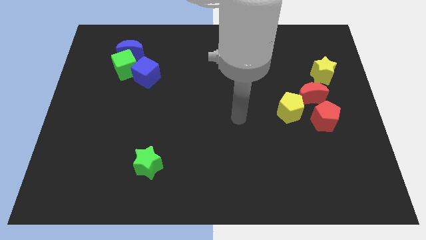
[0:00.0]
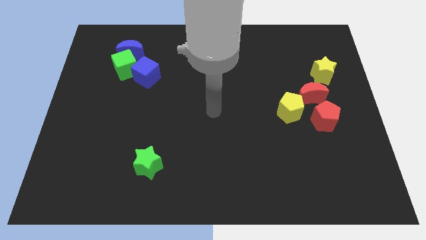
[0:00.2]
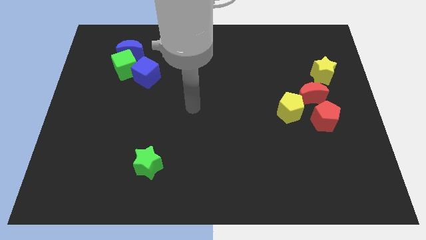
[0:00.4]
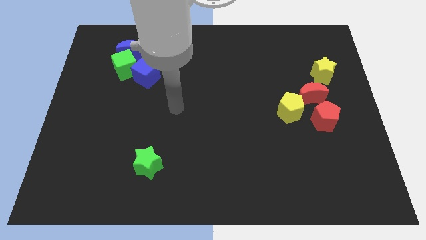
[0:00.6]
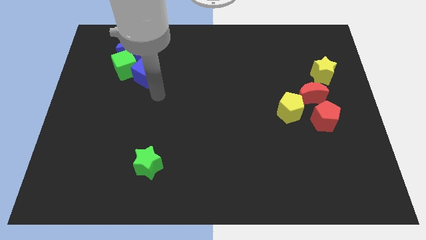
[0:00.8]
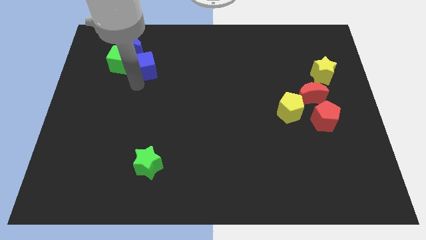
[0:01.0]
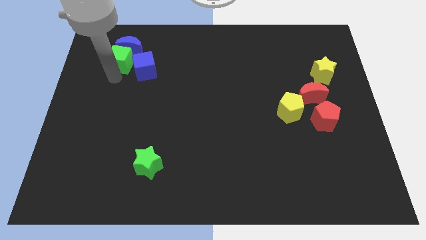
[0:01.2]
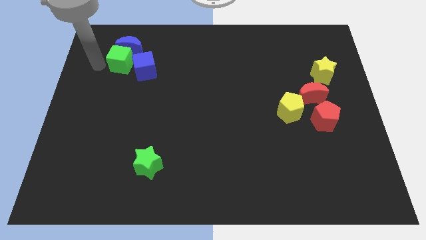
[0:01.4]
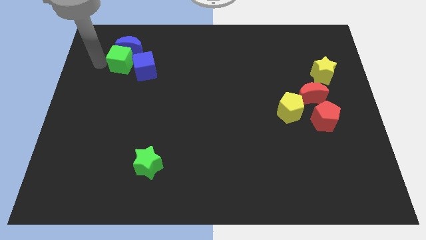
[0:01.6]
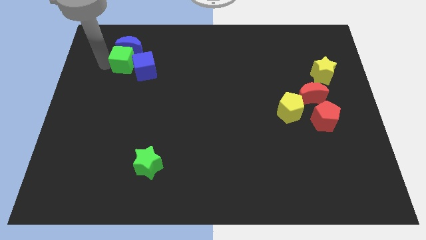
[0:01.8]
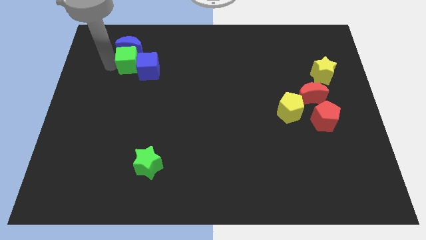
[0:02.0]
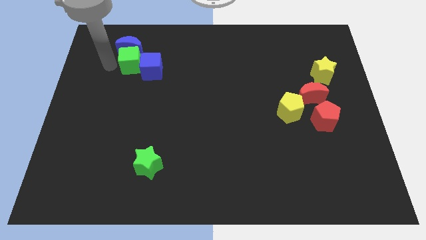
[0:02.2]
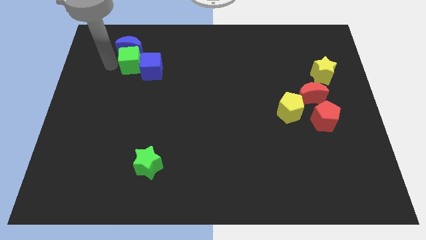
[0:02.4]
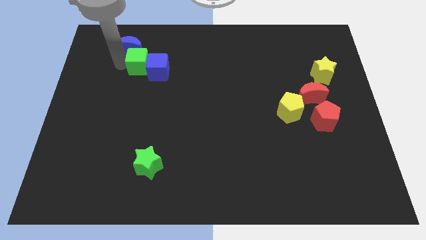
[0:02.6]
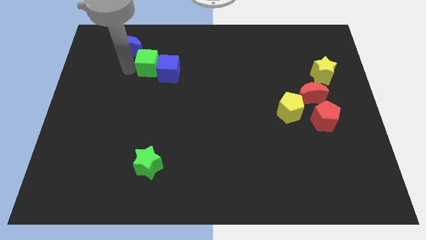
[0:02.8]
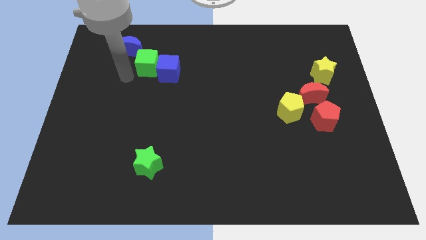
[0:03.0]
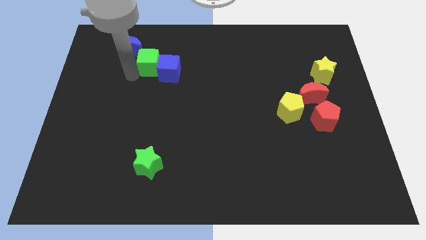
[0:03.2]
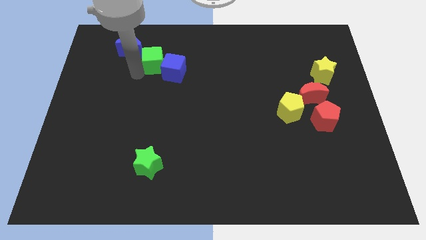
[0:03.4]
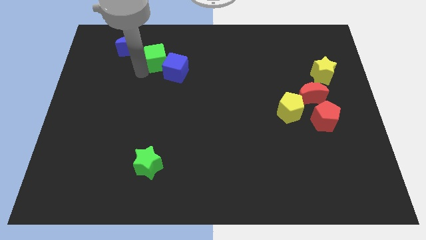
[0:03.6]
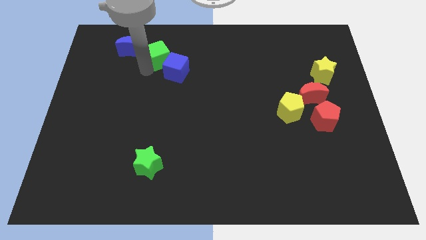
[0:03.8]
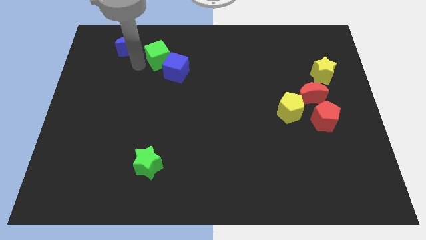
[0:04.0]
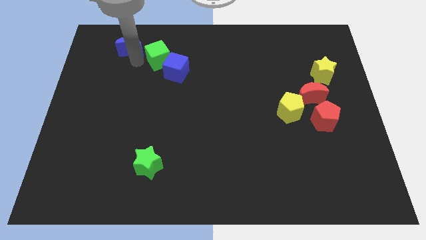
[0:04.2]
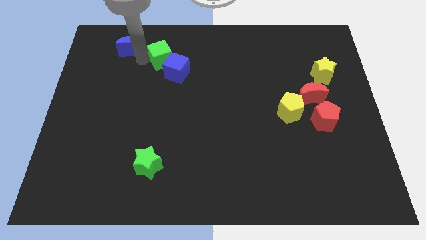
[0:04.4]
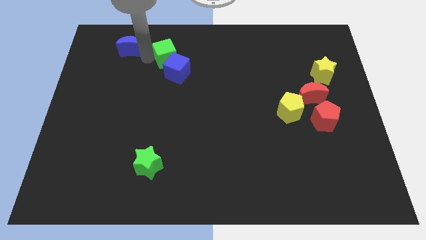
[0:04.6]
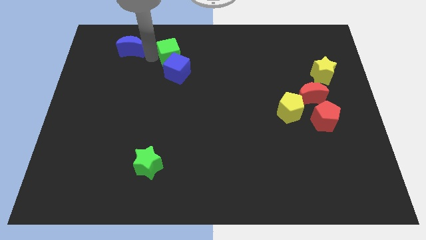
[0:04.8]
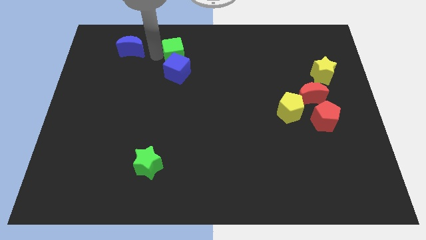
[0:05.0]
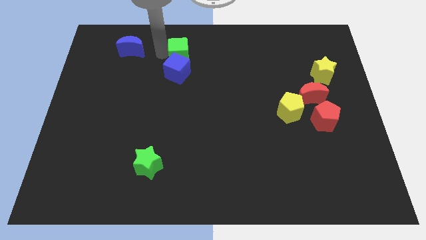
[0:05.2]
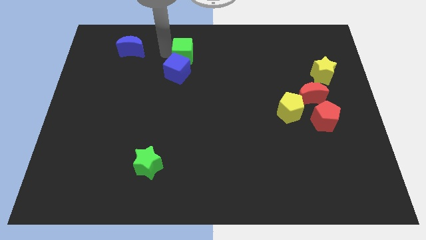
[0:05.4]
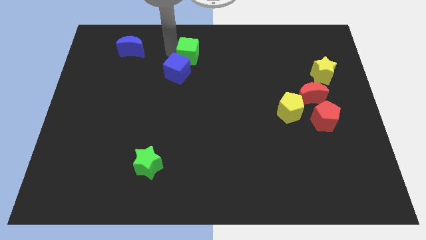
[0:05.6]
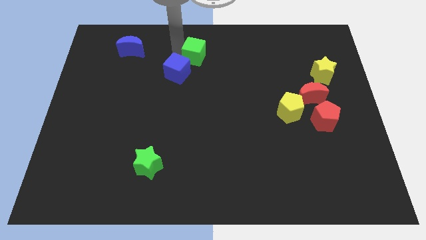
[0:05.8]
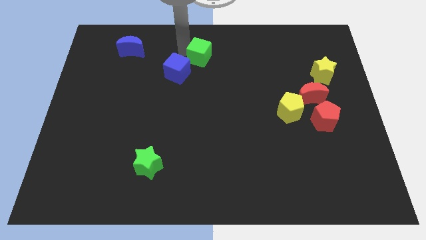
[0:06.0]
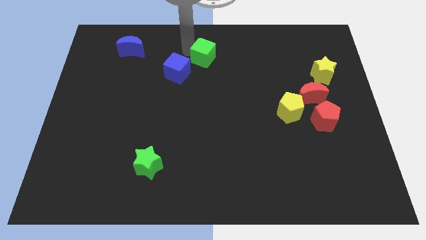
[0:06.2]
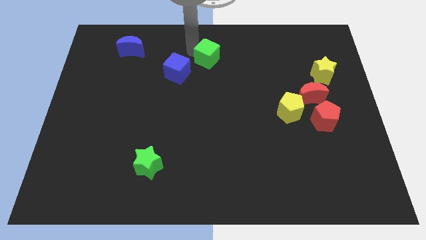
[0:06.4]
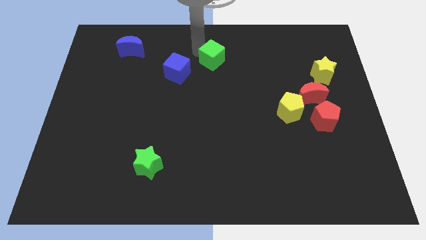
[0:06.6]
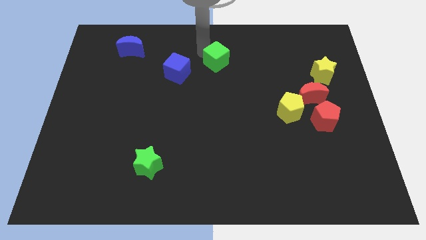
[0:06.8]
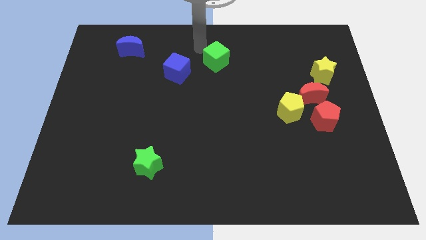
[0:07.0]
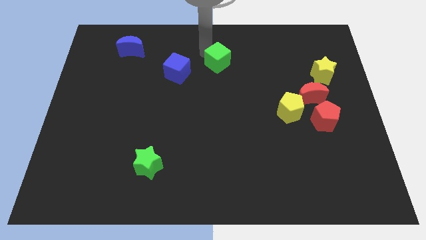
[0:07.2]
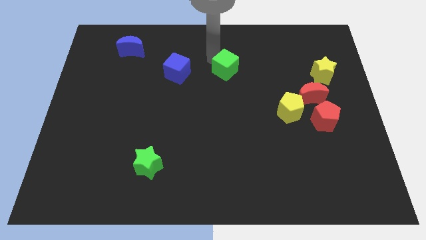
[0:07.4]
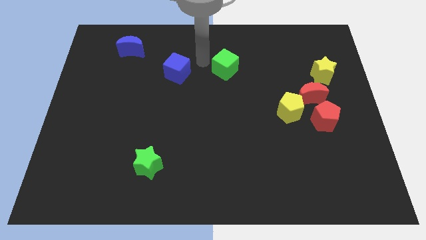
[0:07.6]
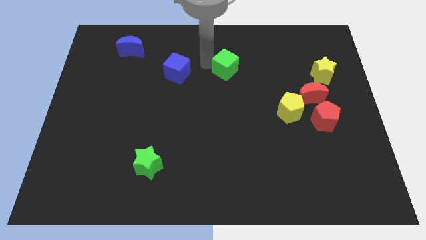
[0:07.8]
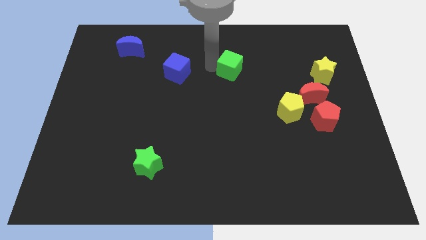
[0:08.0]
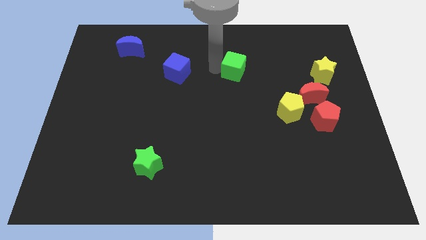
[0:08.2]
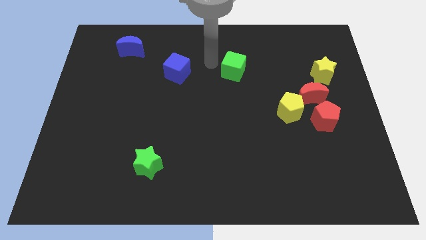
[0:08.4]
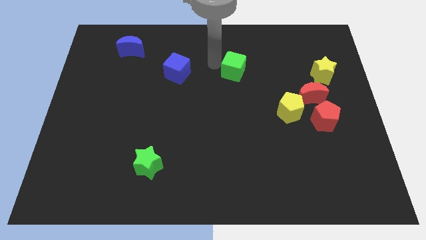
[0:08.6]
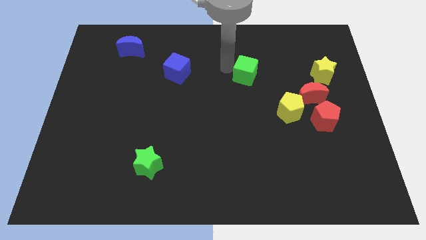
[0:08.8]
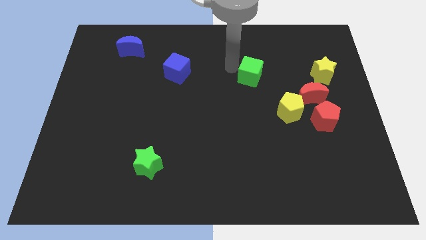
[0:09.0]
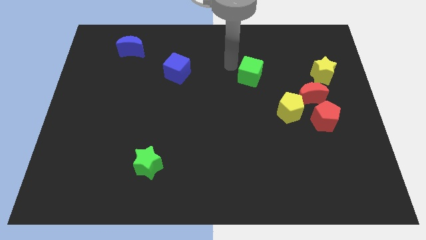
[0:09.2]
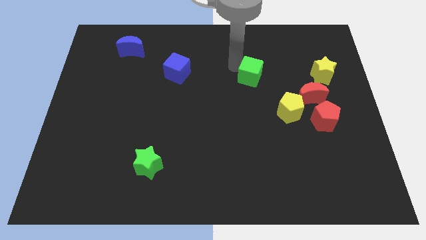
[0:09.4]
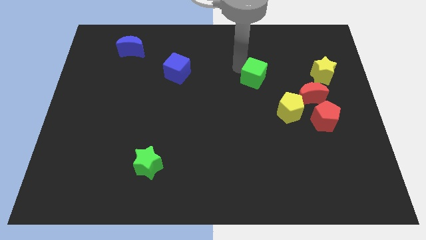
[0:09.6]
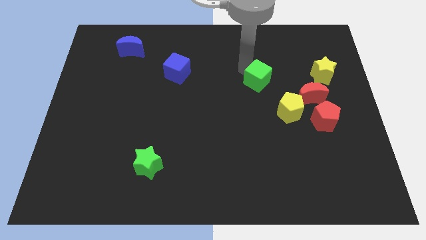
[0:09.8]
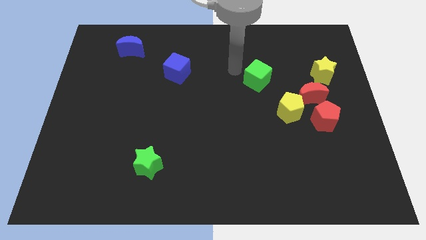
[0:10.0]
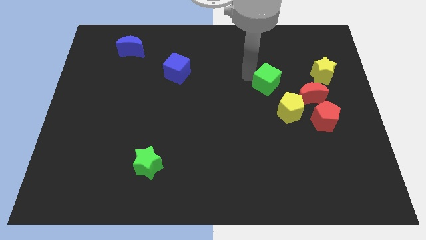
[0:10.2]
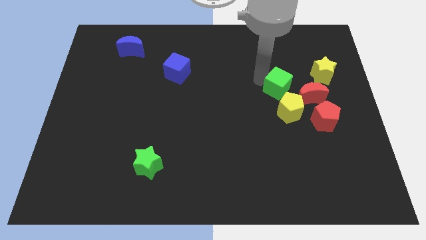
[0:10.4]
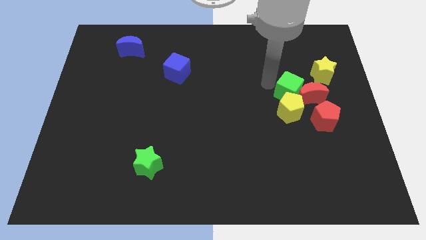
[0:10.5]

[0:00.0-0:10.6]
put the green cube to the red moon

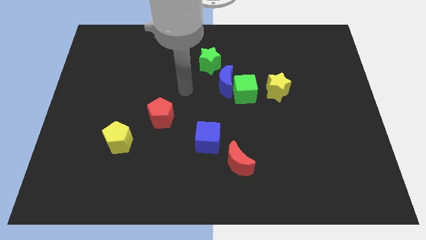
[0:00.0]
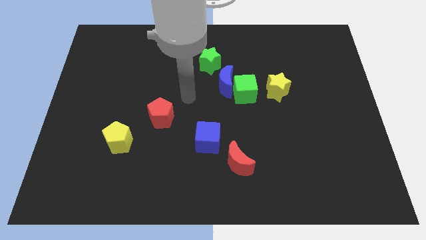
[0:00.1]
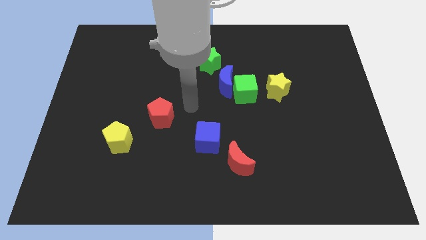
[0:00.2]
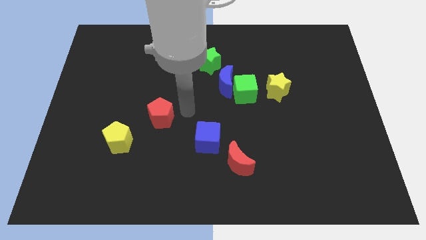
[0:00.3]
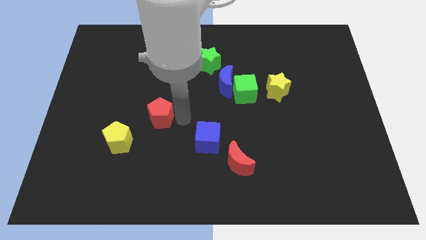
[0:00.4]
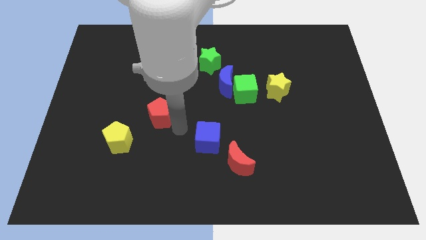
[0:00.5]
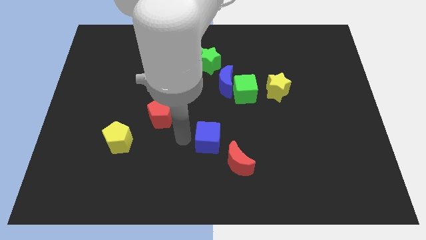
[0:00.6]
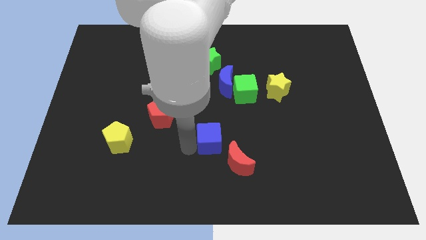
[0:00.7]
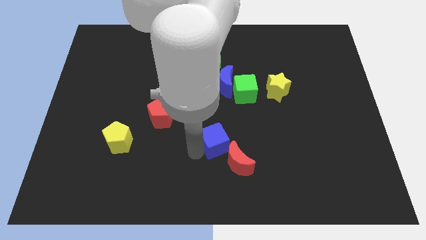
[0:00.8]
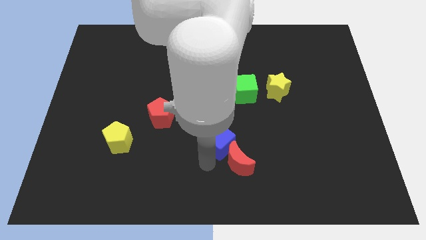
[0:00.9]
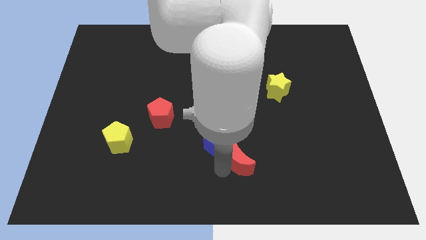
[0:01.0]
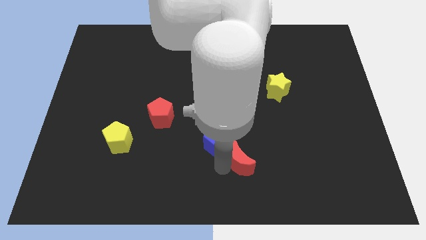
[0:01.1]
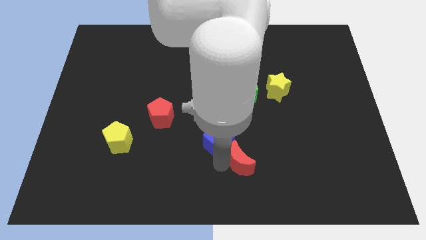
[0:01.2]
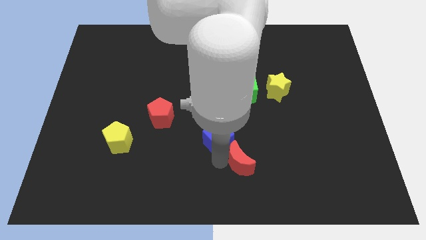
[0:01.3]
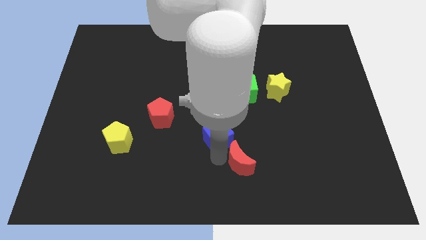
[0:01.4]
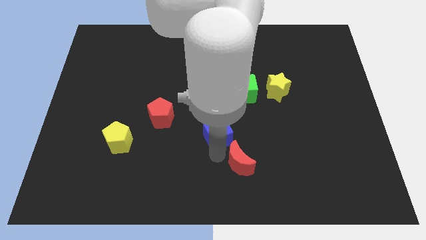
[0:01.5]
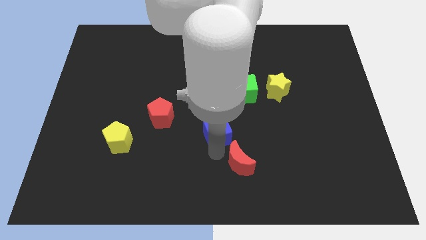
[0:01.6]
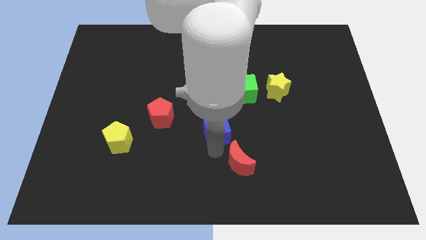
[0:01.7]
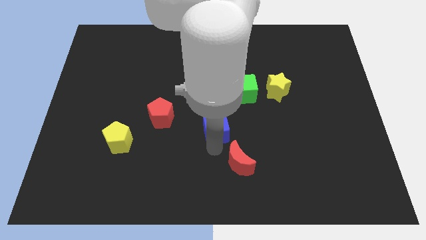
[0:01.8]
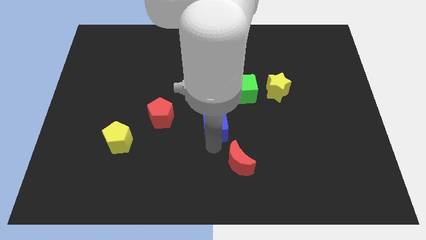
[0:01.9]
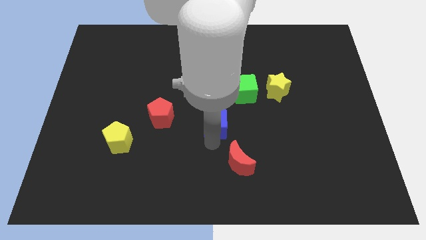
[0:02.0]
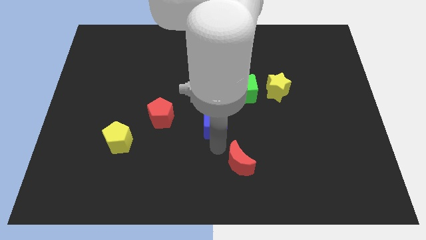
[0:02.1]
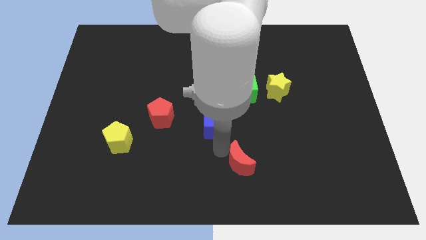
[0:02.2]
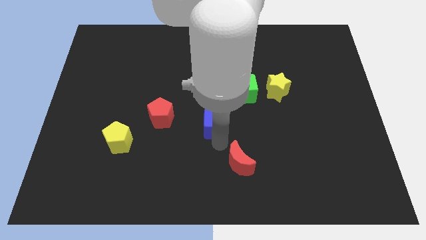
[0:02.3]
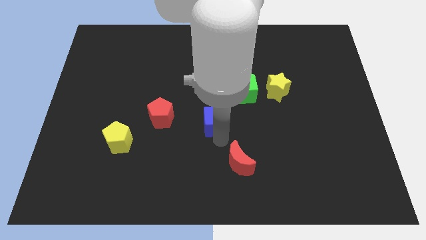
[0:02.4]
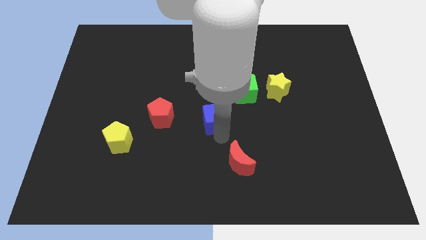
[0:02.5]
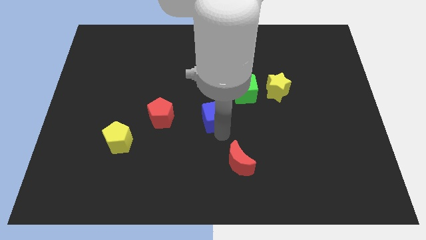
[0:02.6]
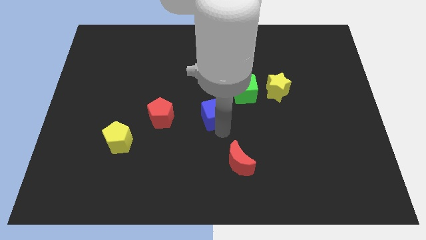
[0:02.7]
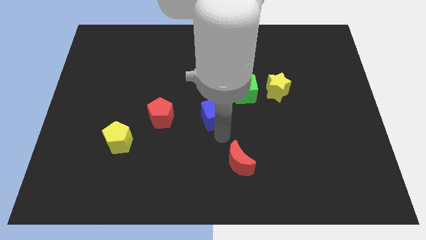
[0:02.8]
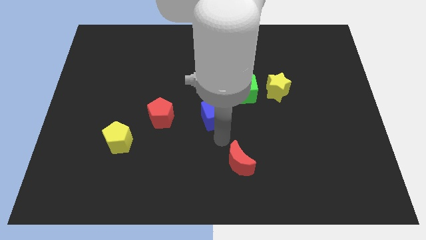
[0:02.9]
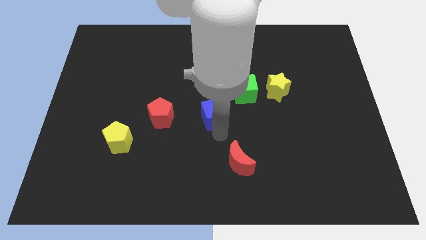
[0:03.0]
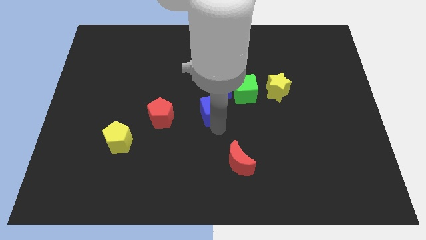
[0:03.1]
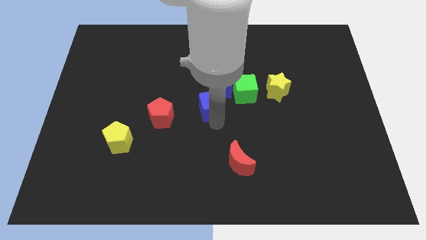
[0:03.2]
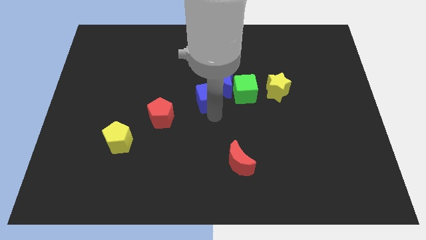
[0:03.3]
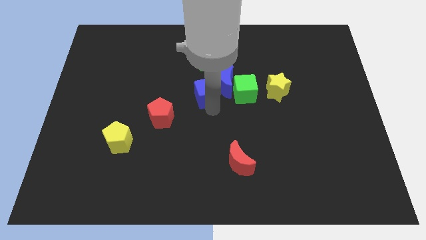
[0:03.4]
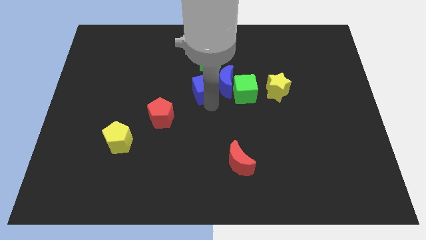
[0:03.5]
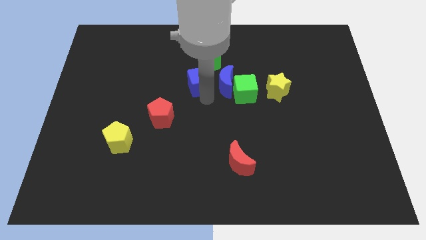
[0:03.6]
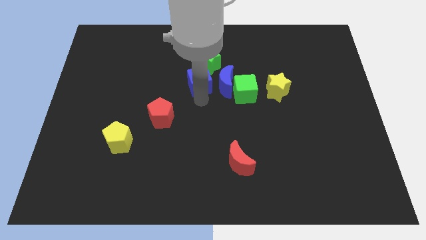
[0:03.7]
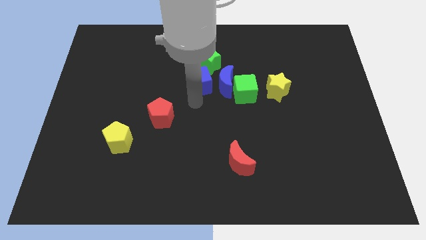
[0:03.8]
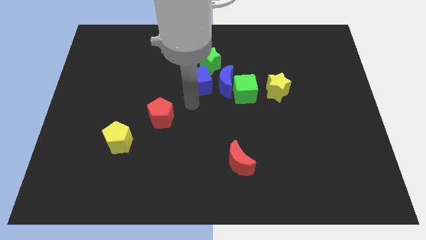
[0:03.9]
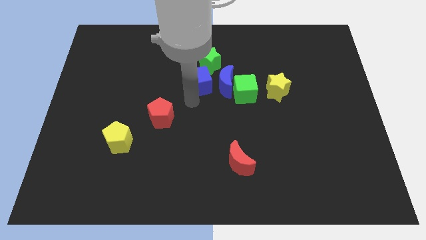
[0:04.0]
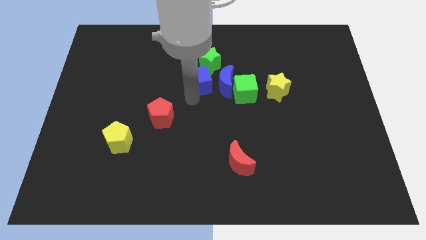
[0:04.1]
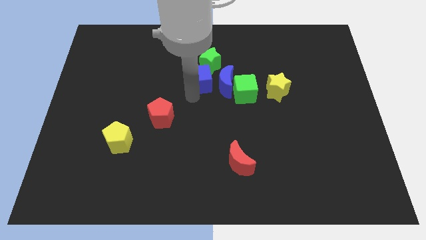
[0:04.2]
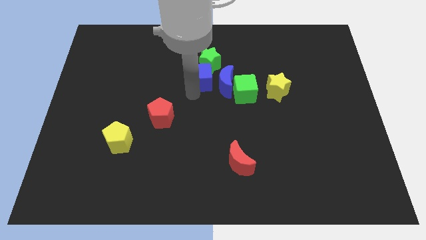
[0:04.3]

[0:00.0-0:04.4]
push the blue cube to the green star
